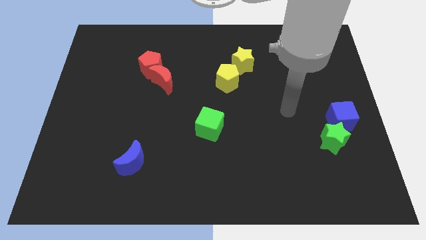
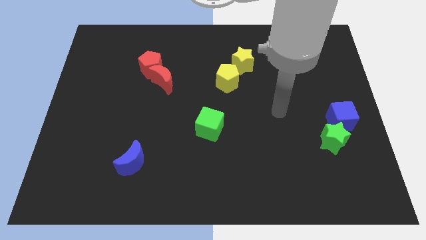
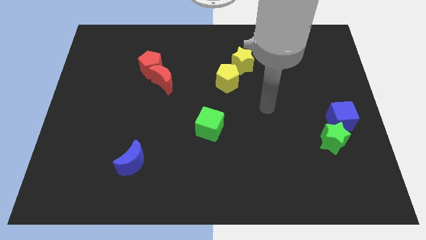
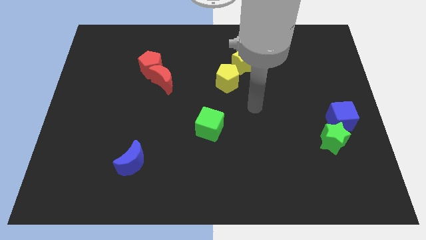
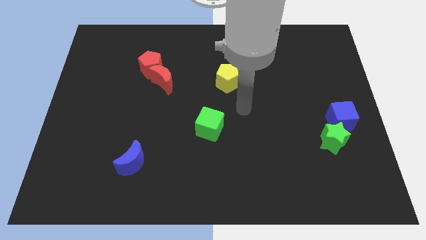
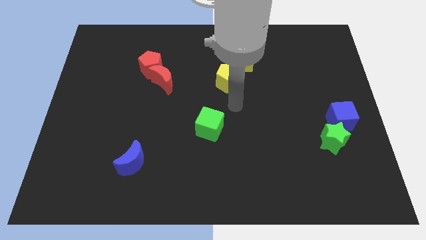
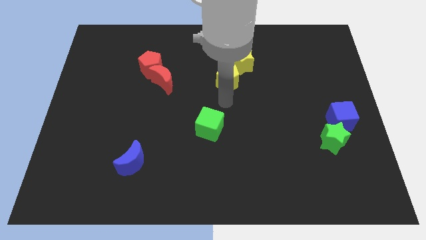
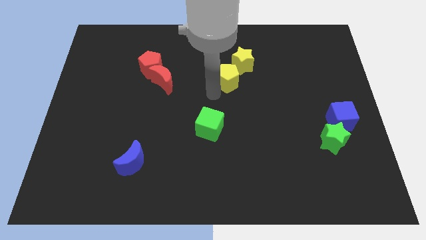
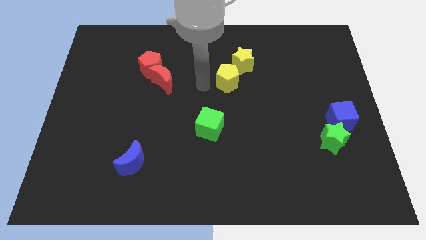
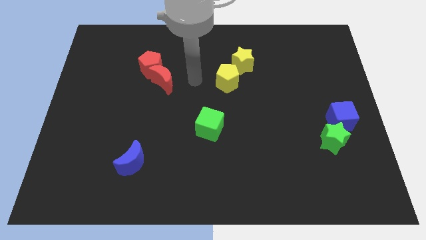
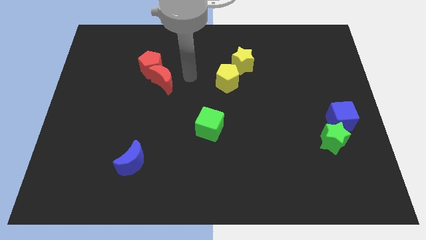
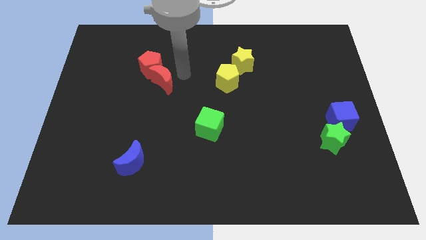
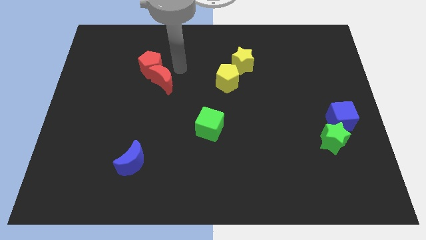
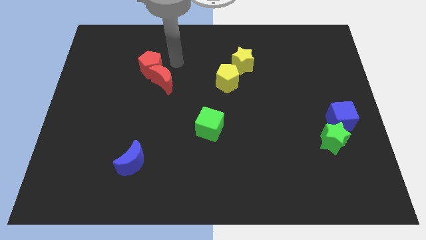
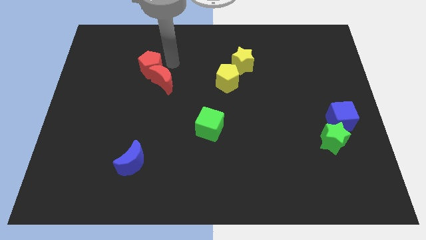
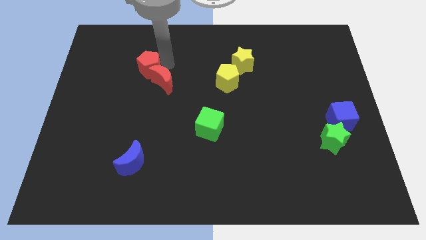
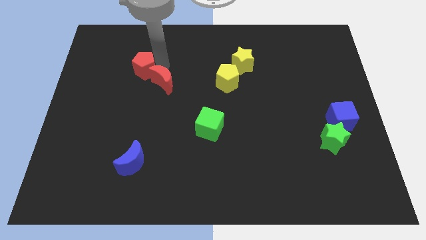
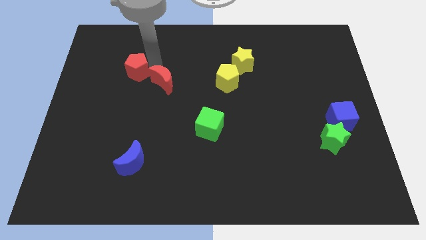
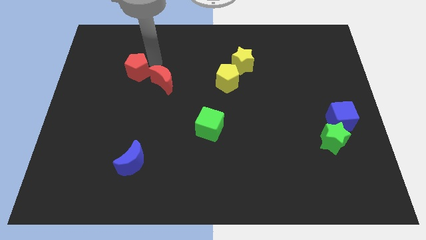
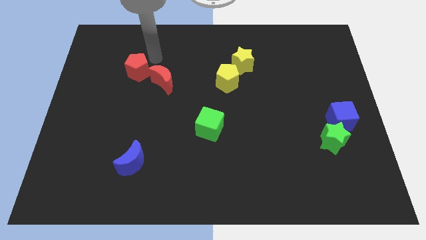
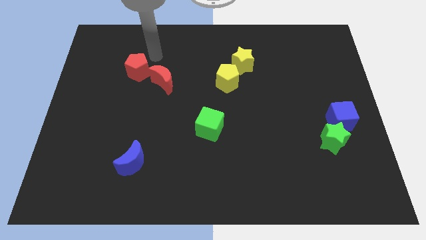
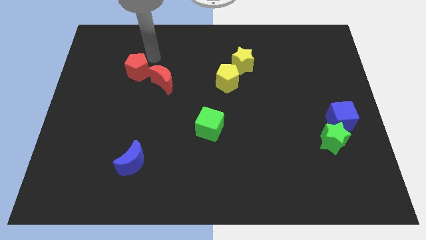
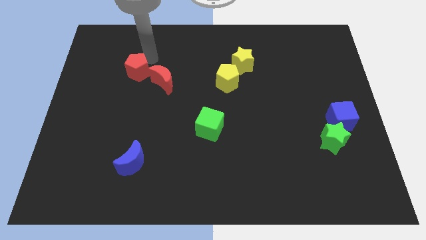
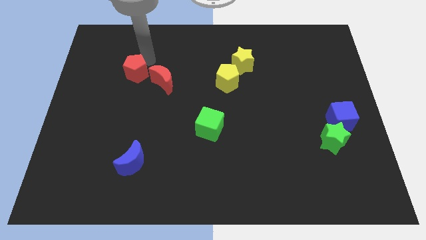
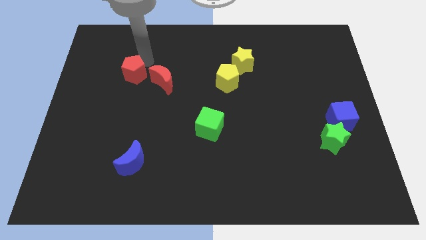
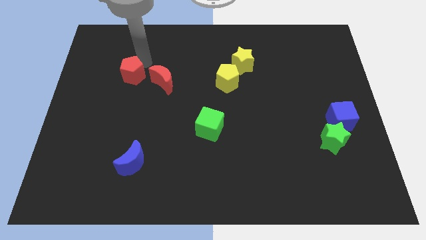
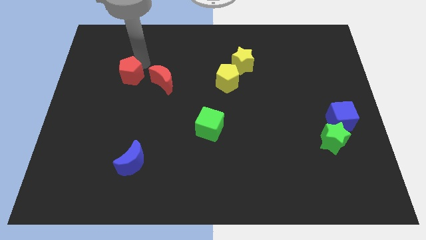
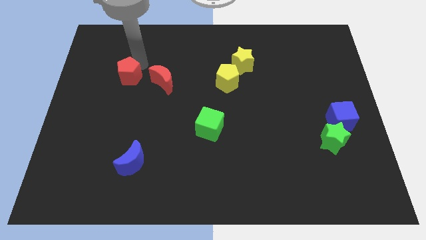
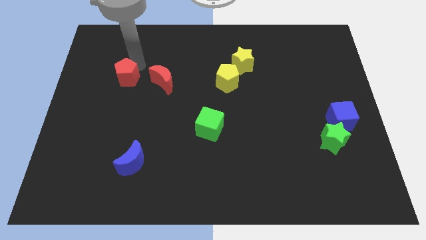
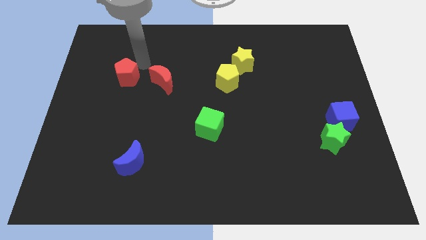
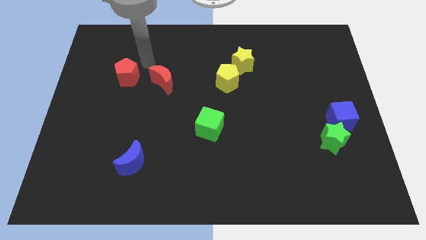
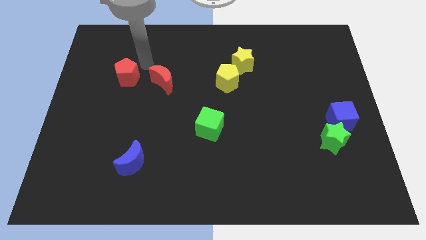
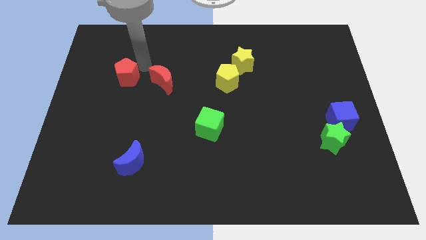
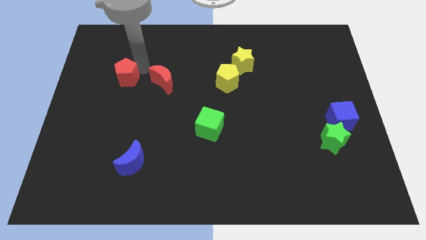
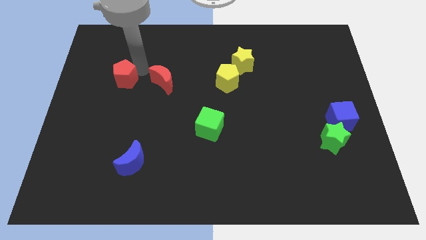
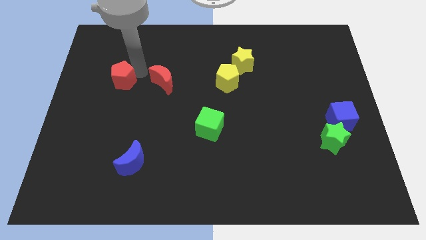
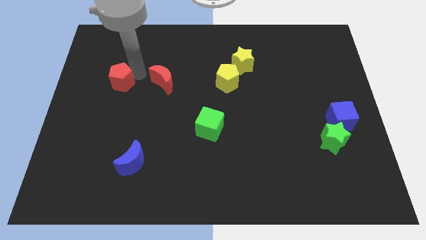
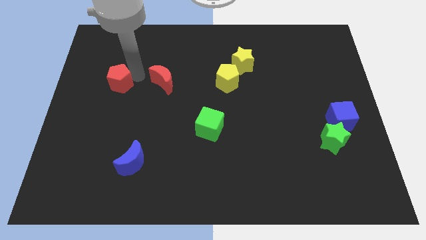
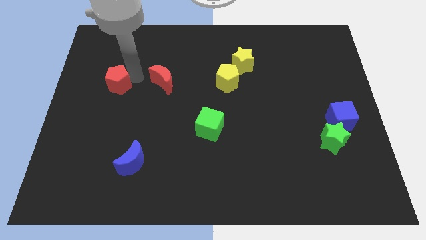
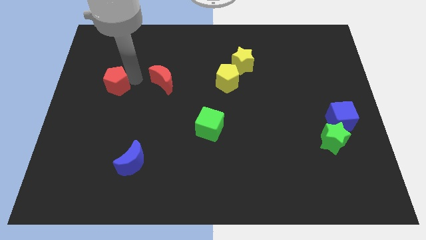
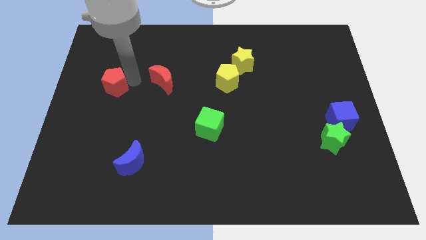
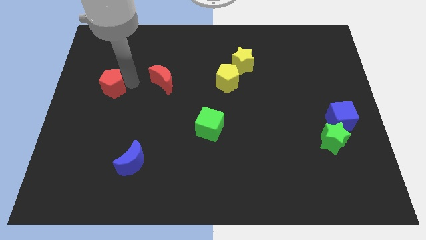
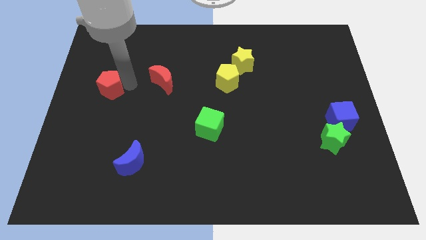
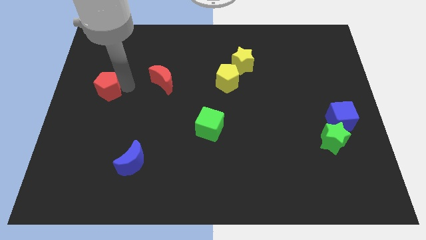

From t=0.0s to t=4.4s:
put the red pentagon to the center left

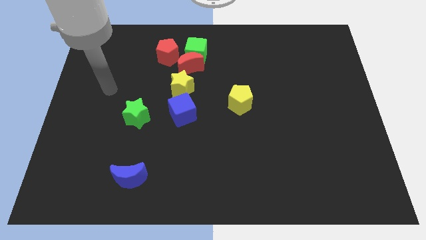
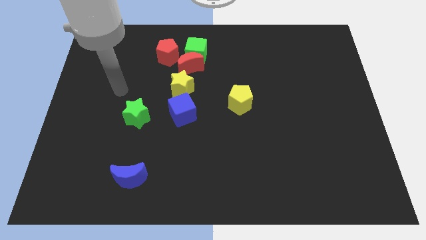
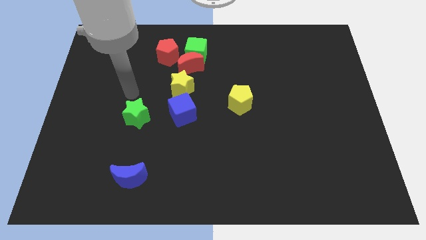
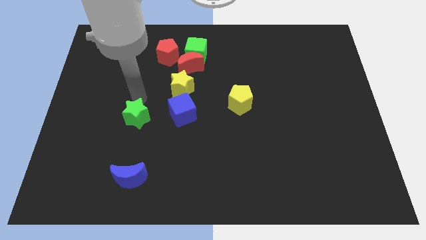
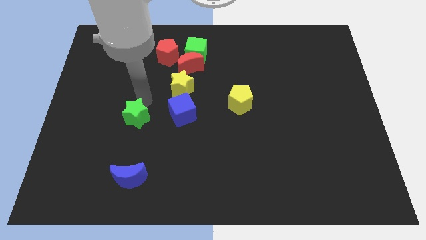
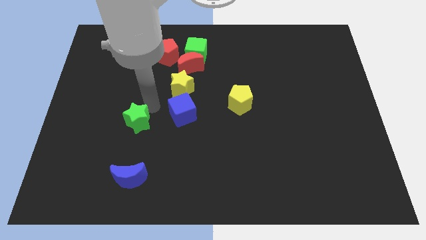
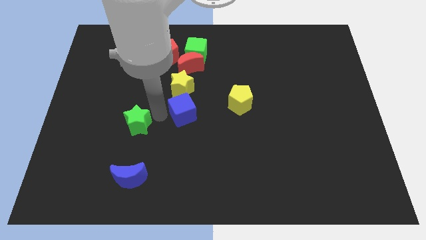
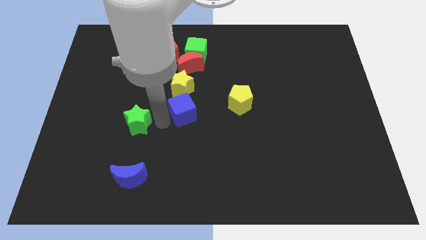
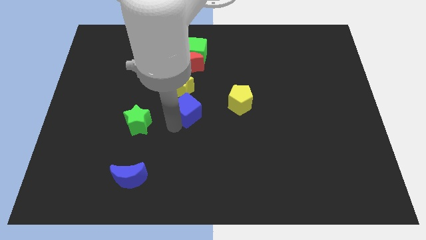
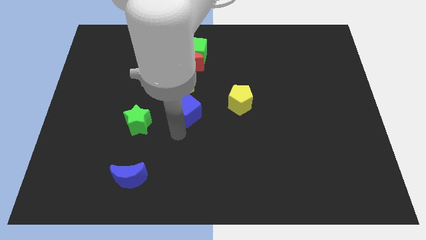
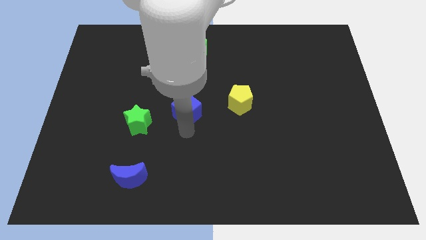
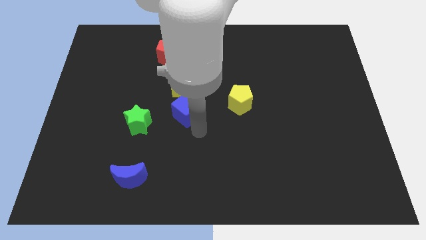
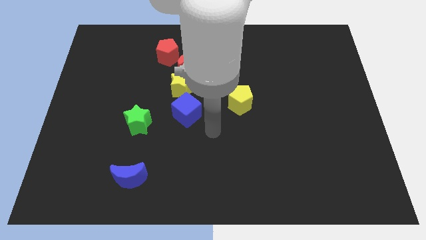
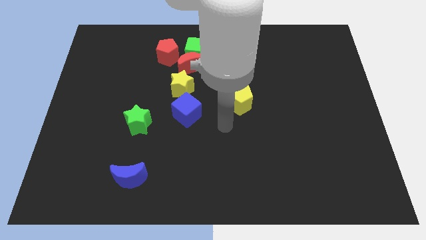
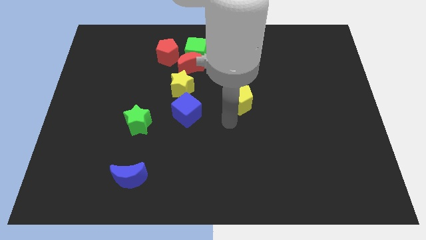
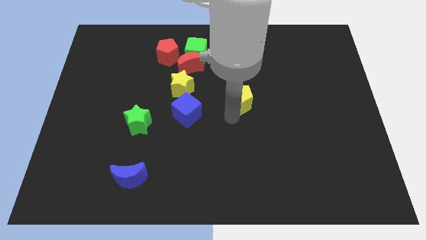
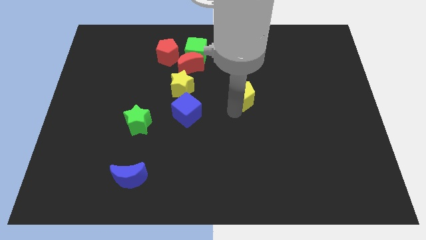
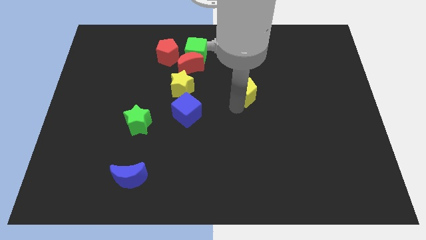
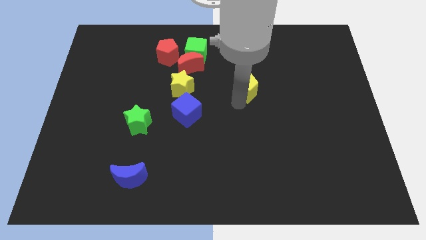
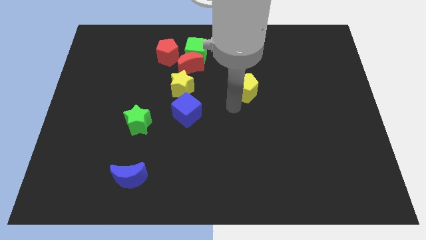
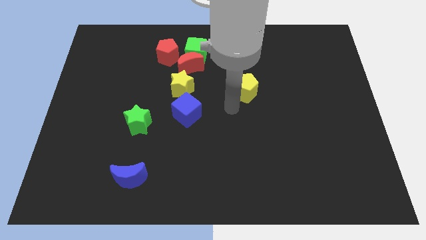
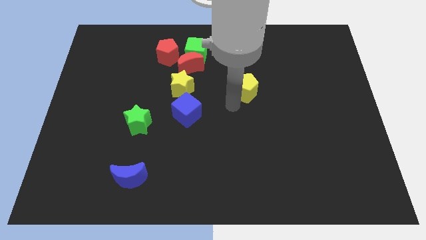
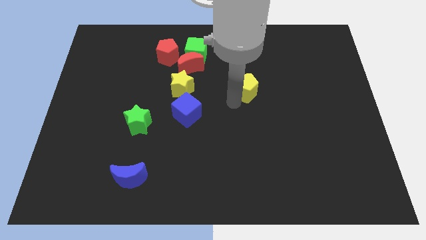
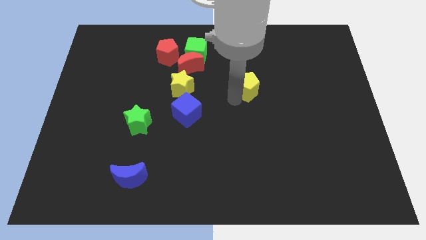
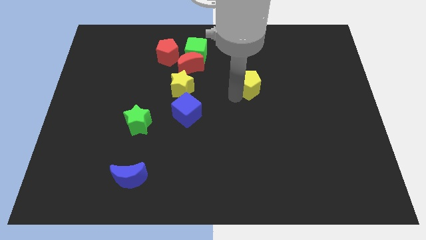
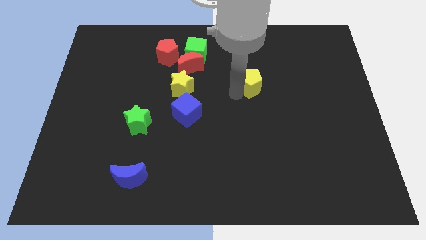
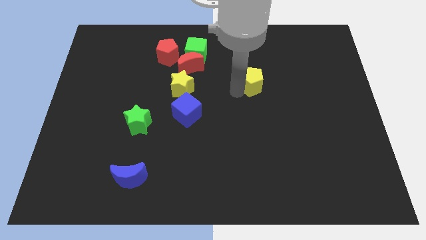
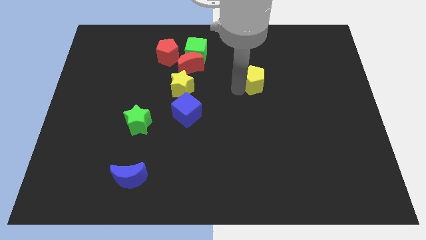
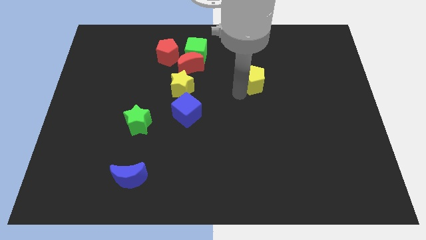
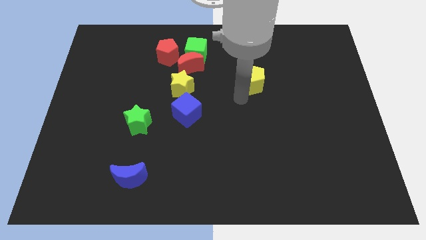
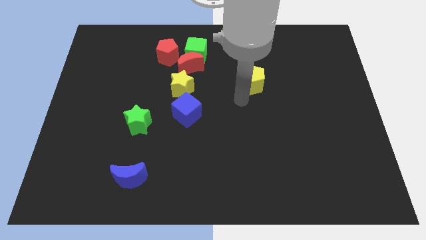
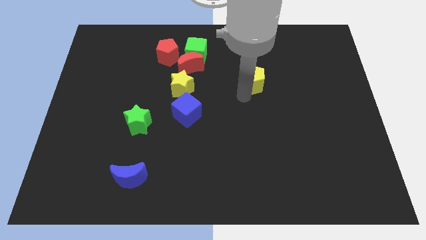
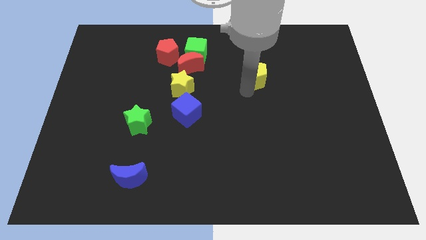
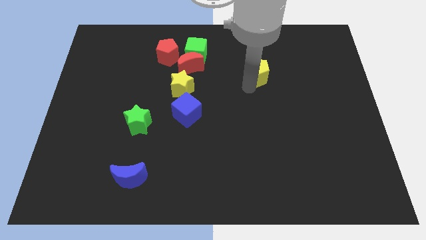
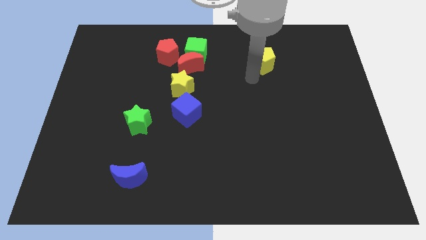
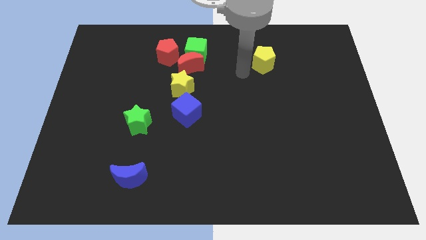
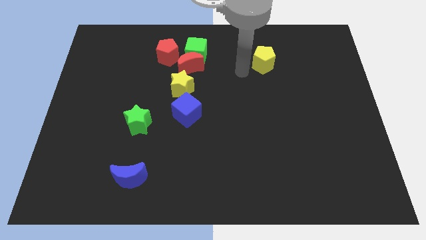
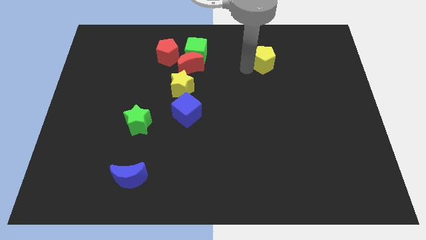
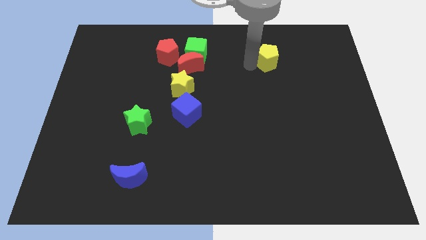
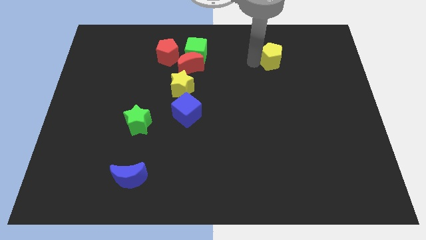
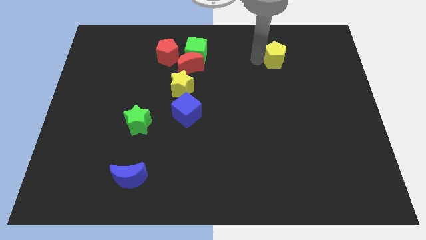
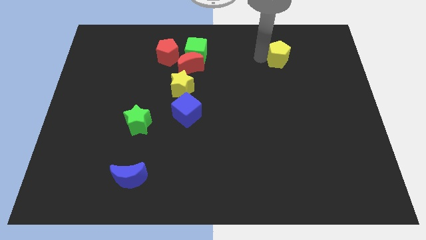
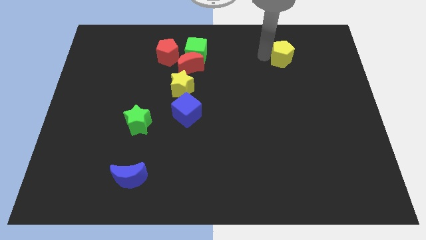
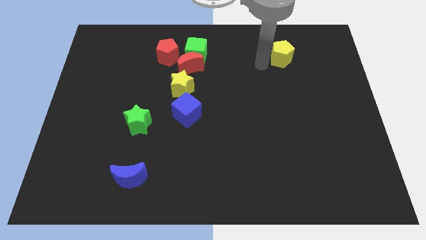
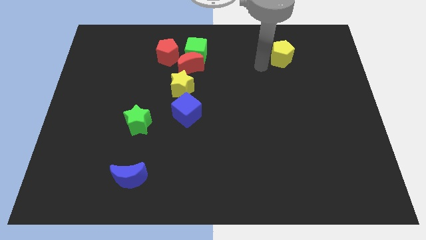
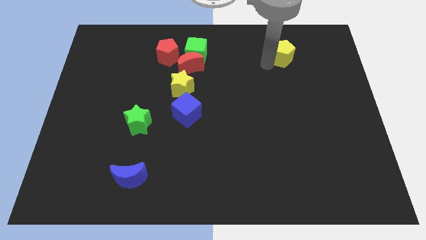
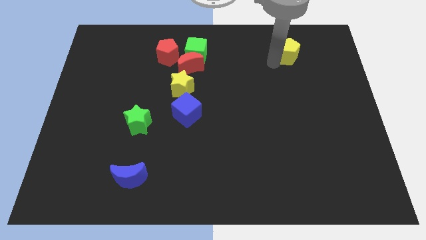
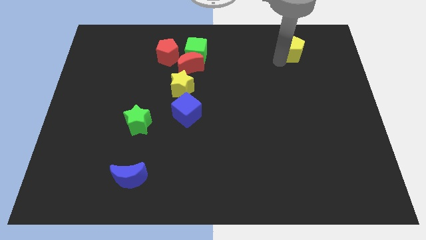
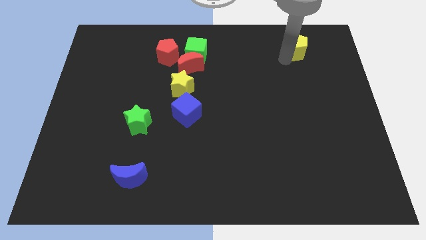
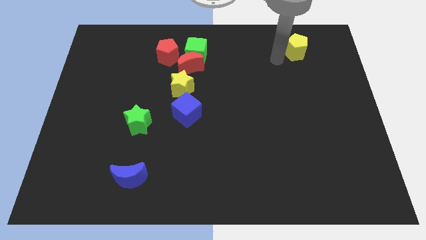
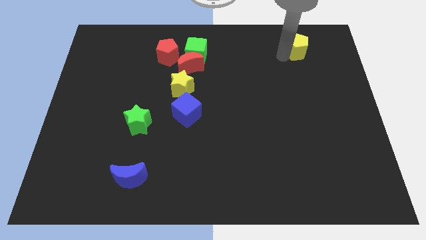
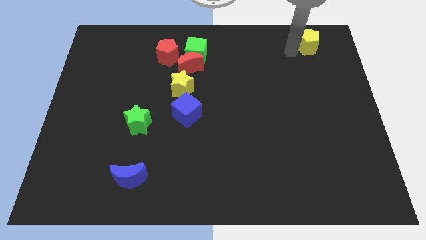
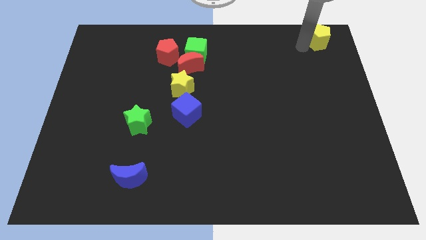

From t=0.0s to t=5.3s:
push the yellow pentagon to the upper right corner
